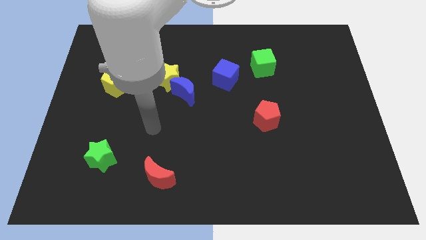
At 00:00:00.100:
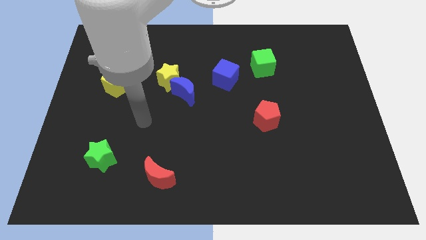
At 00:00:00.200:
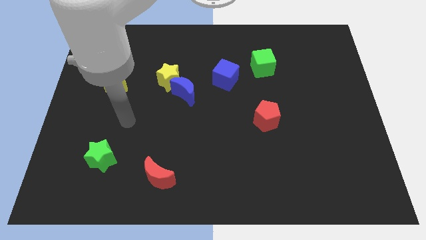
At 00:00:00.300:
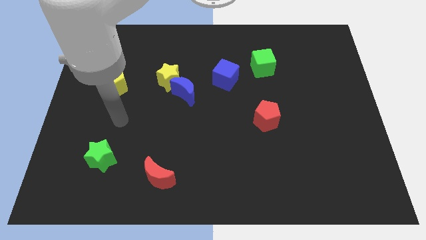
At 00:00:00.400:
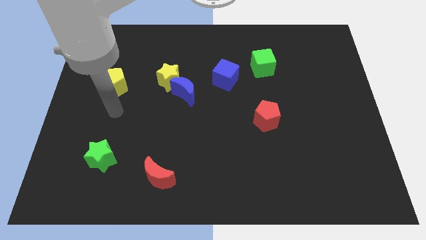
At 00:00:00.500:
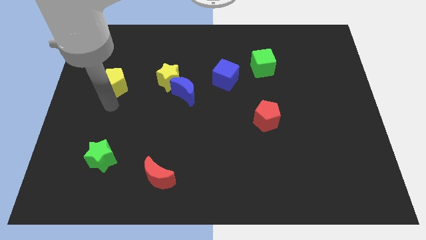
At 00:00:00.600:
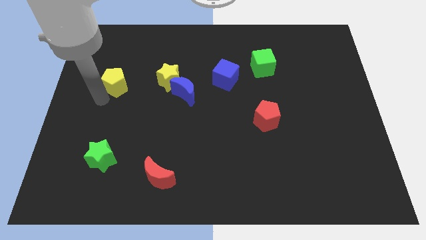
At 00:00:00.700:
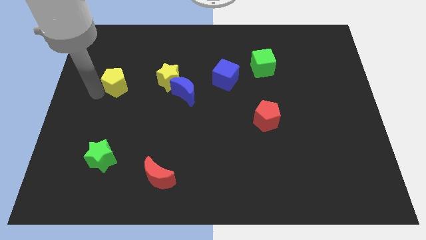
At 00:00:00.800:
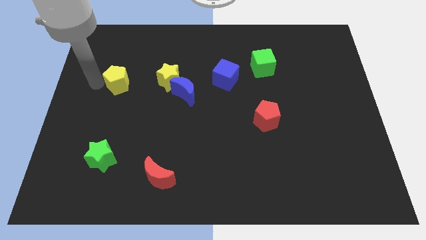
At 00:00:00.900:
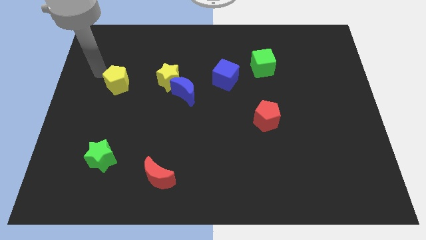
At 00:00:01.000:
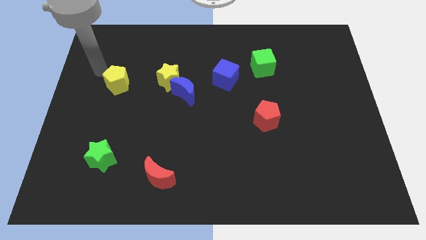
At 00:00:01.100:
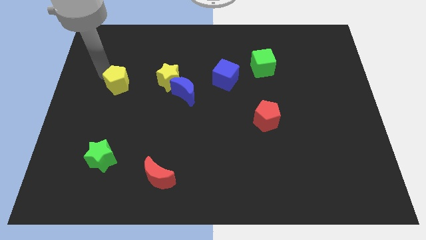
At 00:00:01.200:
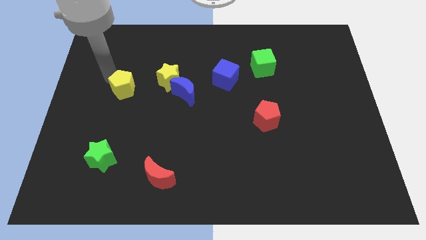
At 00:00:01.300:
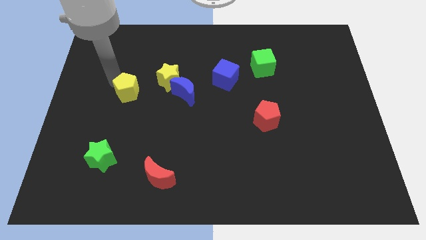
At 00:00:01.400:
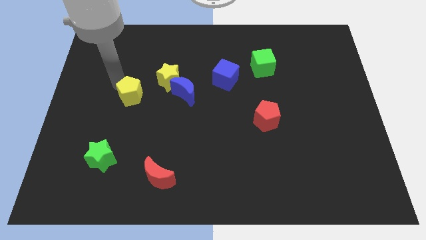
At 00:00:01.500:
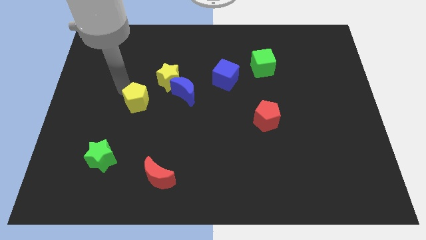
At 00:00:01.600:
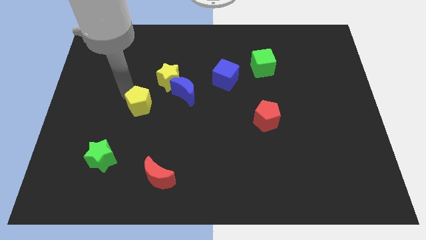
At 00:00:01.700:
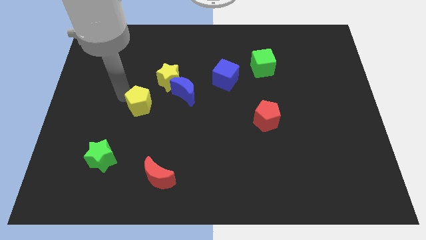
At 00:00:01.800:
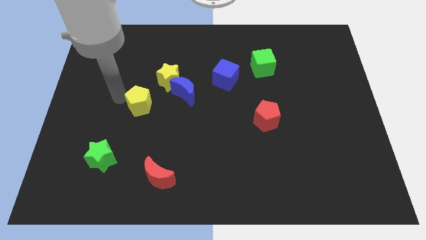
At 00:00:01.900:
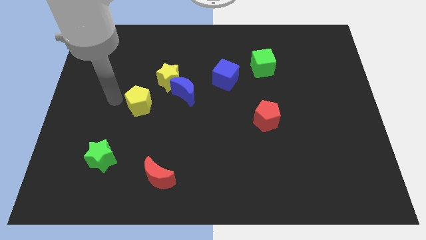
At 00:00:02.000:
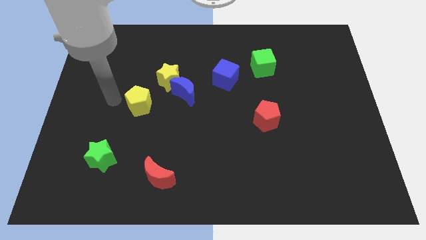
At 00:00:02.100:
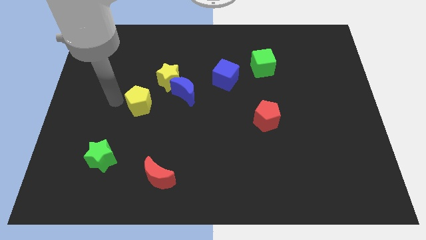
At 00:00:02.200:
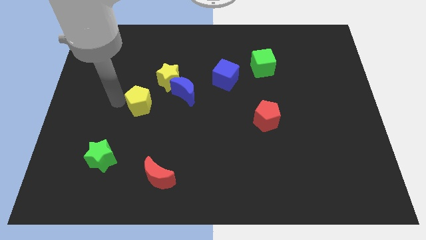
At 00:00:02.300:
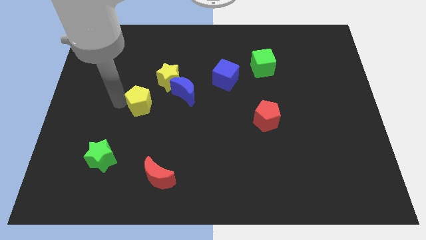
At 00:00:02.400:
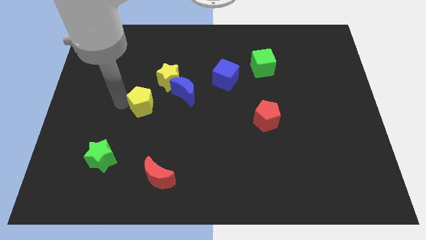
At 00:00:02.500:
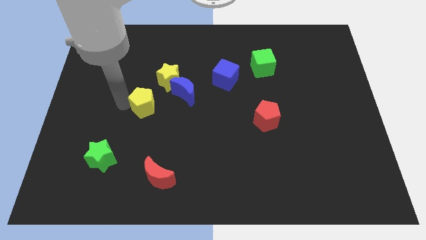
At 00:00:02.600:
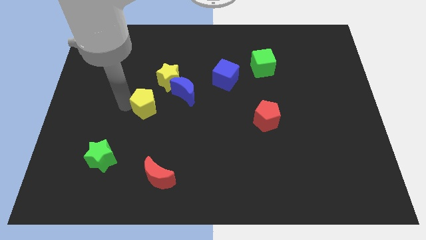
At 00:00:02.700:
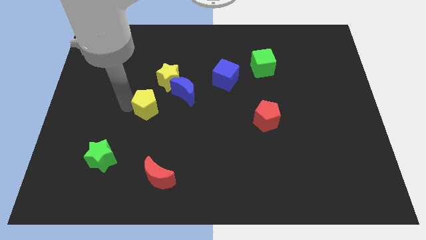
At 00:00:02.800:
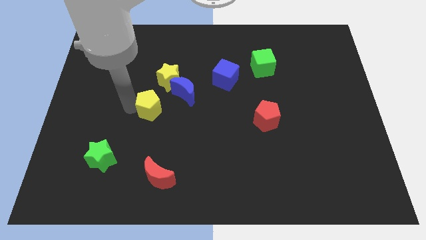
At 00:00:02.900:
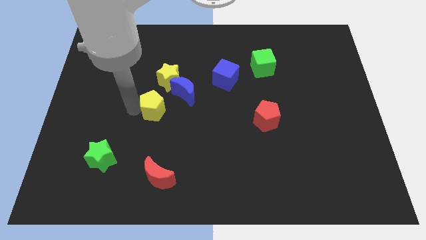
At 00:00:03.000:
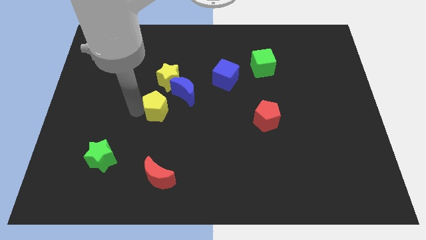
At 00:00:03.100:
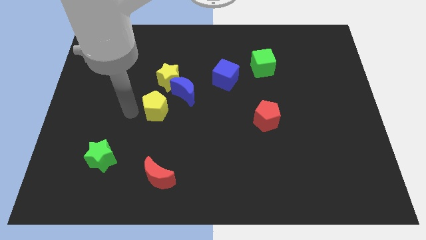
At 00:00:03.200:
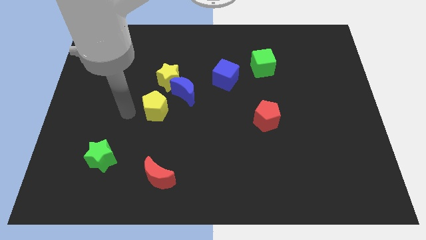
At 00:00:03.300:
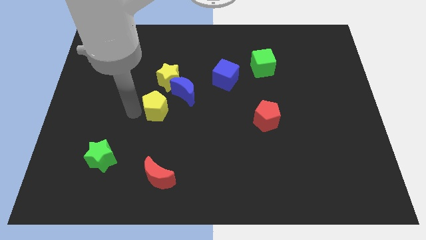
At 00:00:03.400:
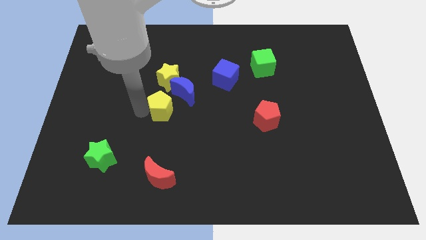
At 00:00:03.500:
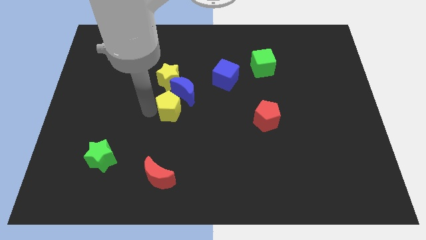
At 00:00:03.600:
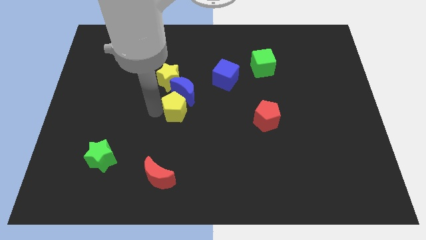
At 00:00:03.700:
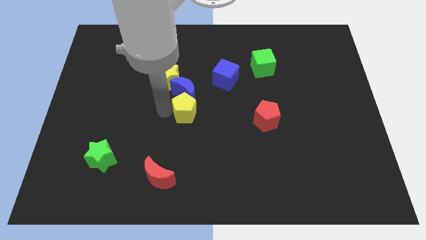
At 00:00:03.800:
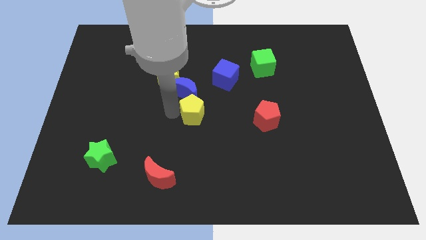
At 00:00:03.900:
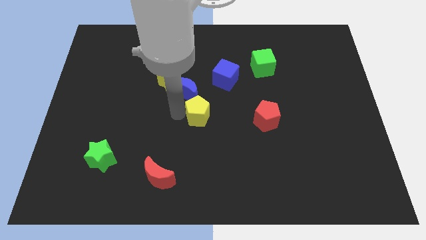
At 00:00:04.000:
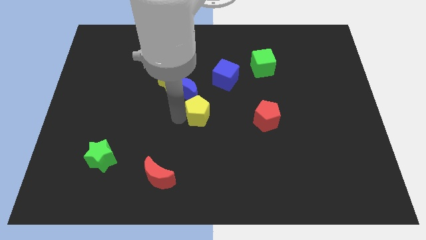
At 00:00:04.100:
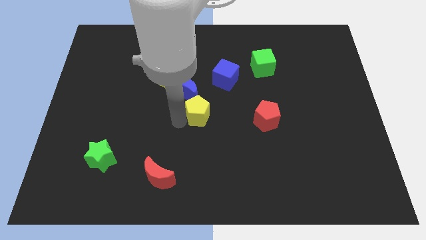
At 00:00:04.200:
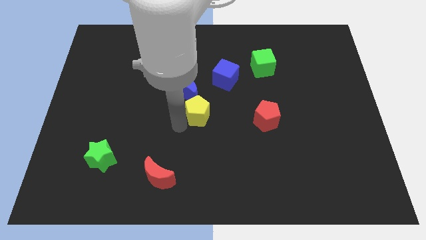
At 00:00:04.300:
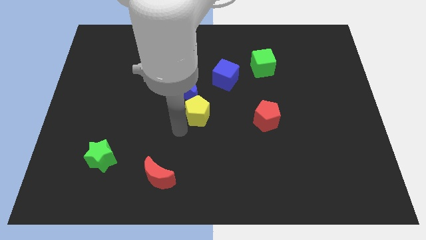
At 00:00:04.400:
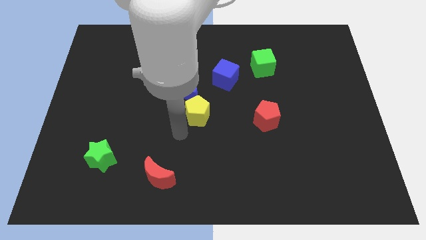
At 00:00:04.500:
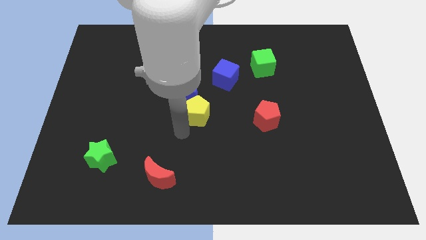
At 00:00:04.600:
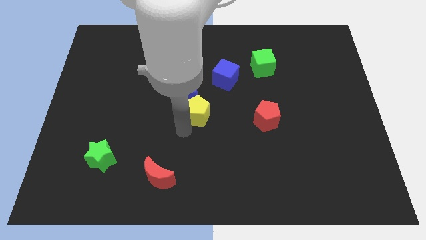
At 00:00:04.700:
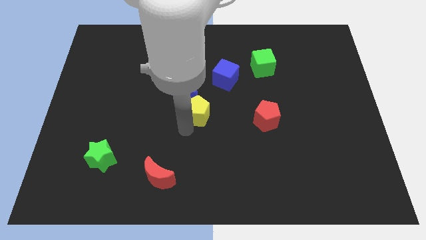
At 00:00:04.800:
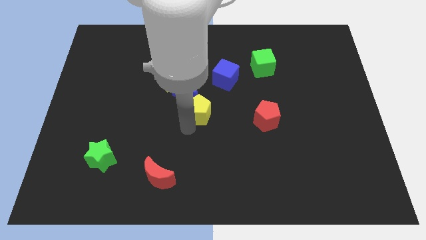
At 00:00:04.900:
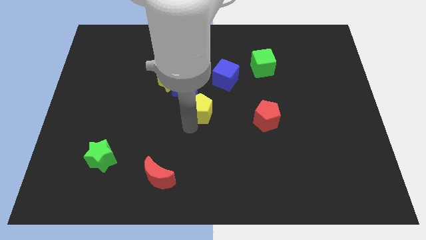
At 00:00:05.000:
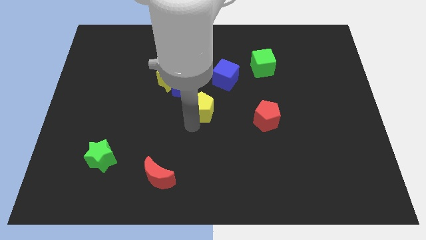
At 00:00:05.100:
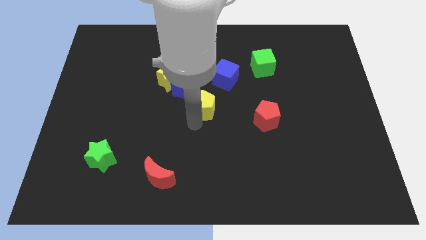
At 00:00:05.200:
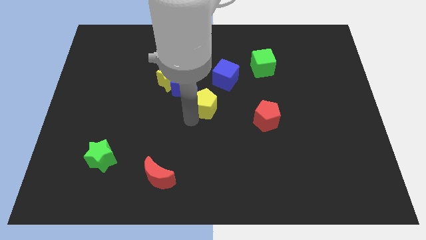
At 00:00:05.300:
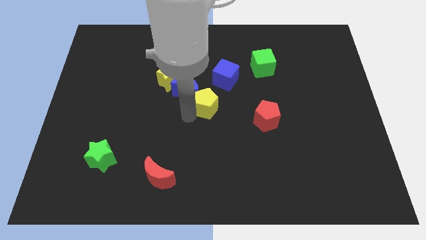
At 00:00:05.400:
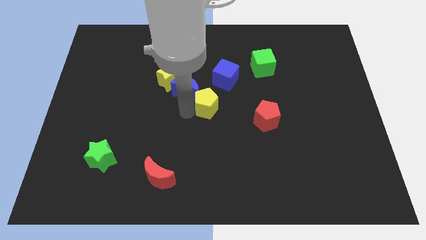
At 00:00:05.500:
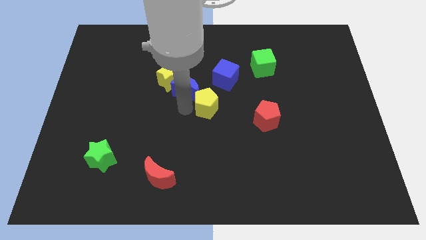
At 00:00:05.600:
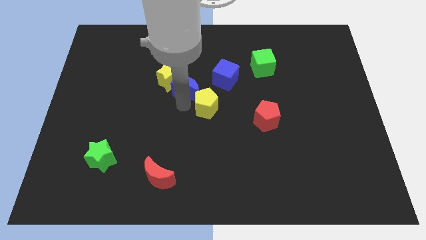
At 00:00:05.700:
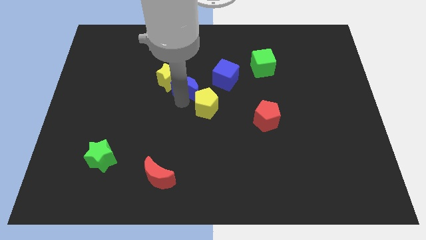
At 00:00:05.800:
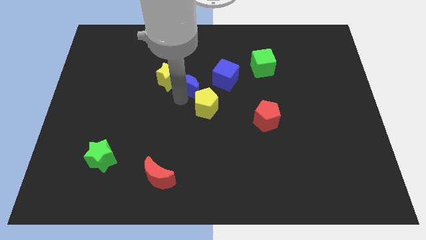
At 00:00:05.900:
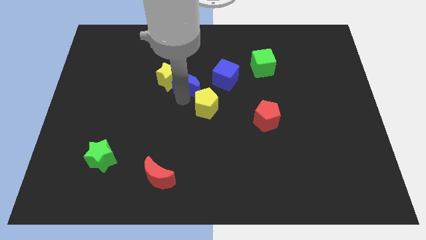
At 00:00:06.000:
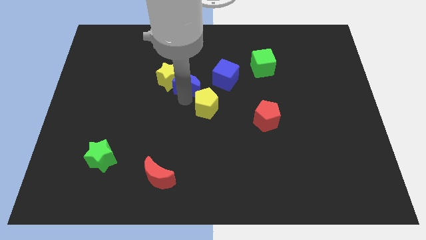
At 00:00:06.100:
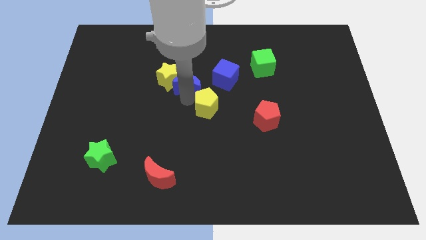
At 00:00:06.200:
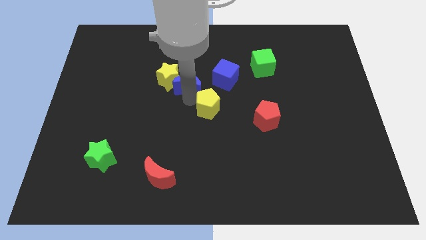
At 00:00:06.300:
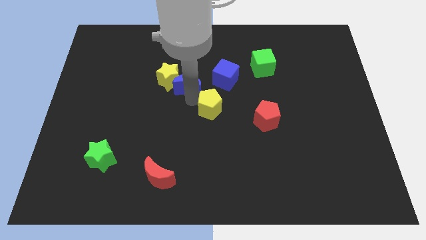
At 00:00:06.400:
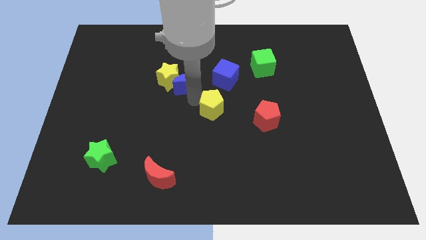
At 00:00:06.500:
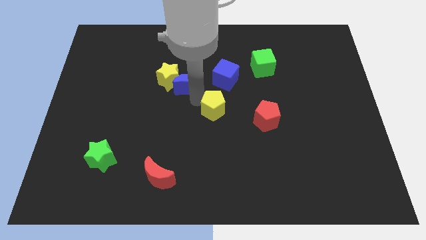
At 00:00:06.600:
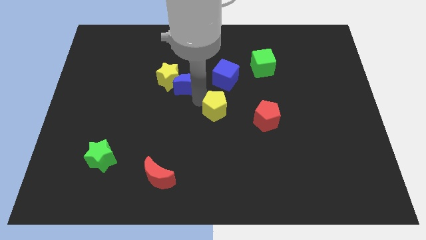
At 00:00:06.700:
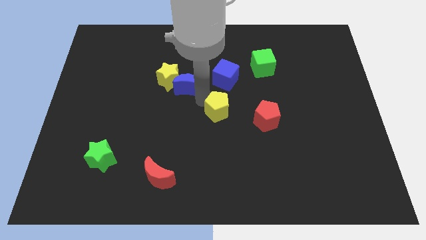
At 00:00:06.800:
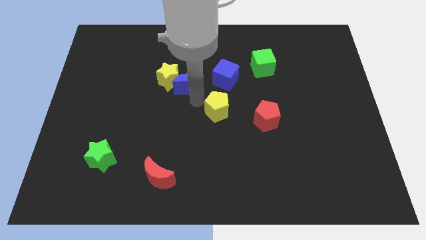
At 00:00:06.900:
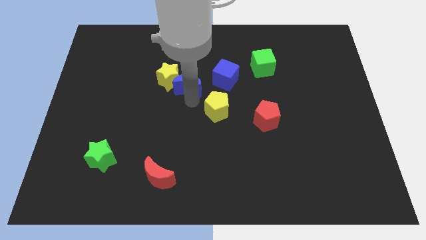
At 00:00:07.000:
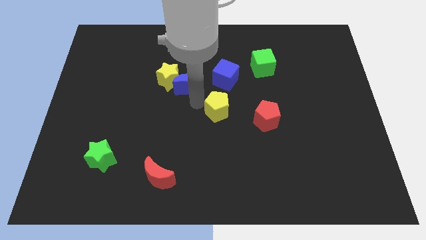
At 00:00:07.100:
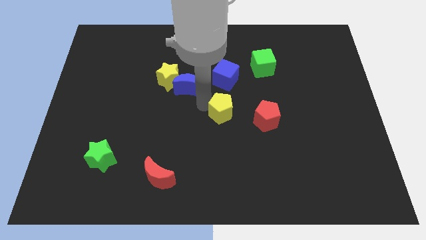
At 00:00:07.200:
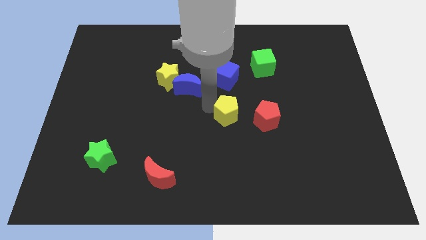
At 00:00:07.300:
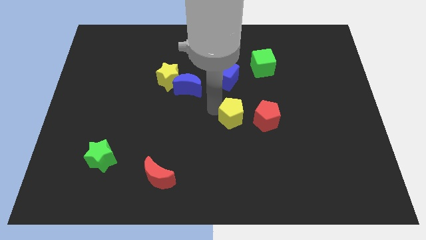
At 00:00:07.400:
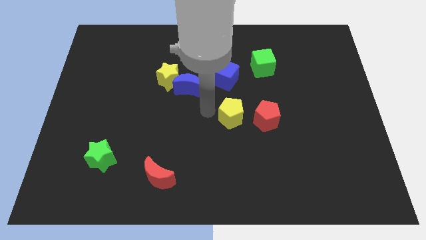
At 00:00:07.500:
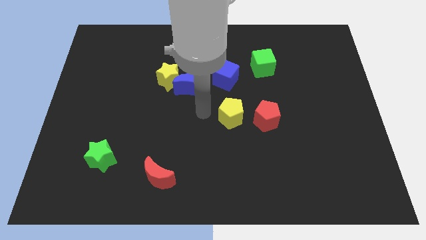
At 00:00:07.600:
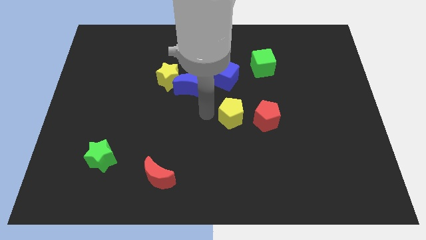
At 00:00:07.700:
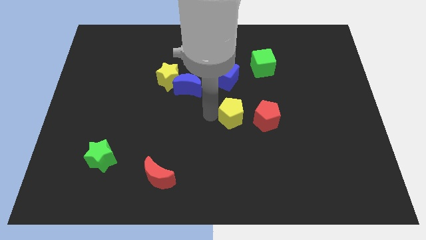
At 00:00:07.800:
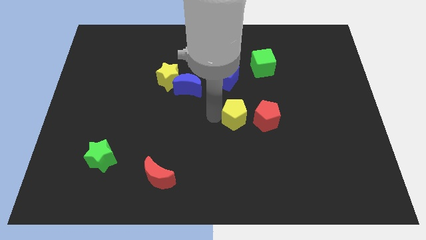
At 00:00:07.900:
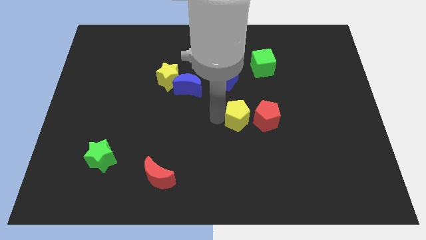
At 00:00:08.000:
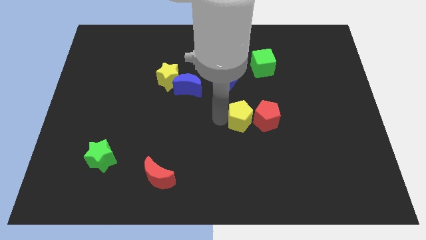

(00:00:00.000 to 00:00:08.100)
put the yellow pentagon to the red pentagon

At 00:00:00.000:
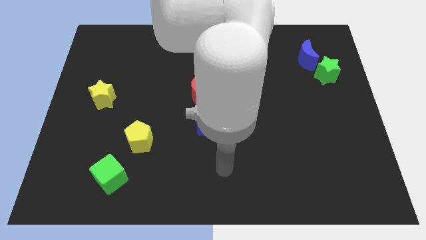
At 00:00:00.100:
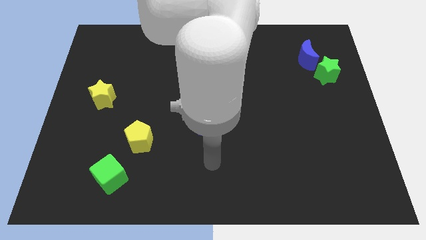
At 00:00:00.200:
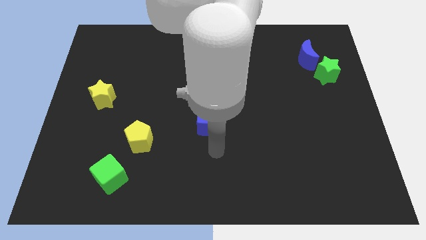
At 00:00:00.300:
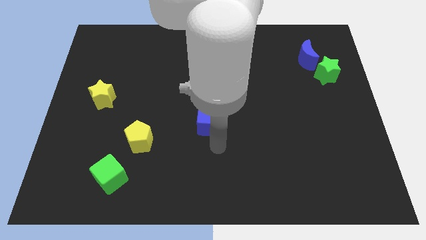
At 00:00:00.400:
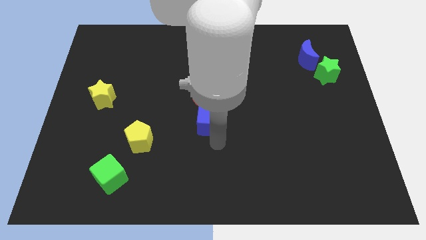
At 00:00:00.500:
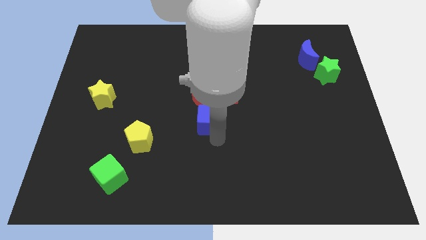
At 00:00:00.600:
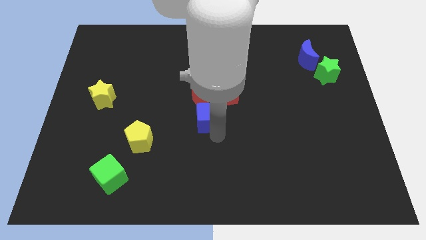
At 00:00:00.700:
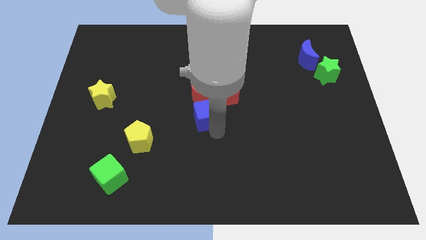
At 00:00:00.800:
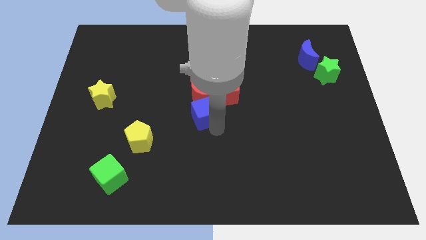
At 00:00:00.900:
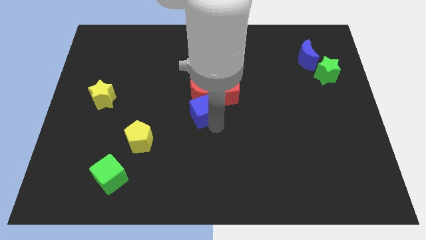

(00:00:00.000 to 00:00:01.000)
put the blue cube close to the red moon
